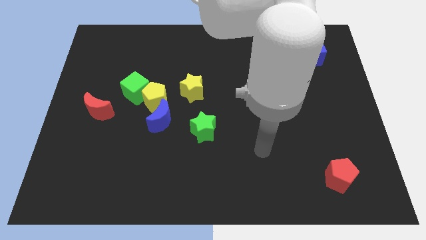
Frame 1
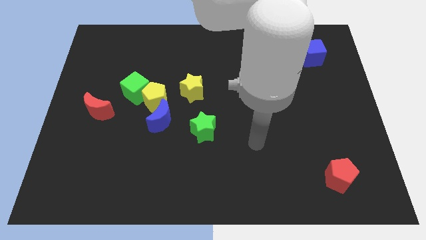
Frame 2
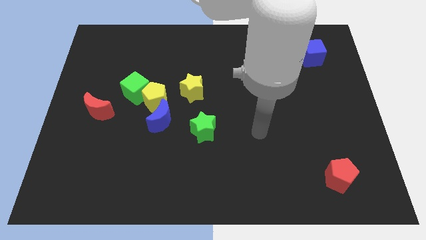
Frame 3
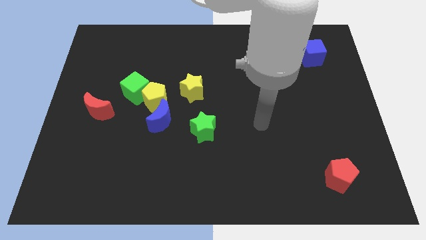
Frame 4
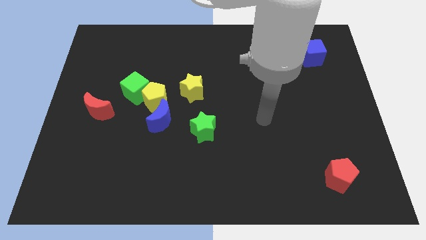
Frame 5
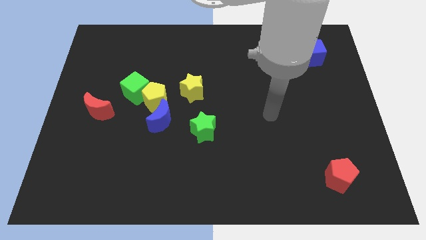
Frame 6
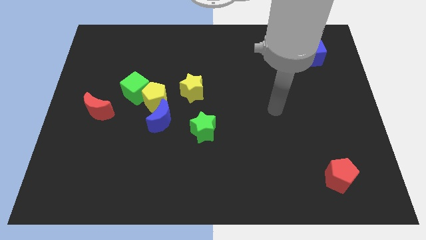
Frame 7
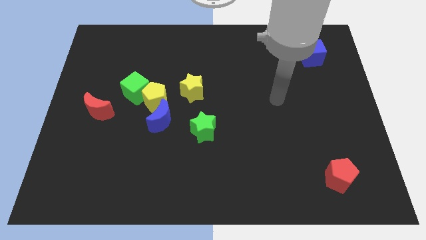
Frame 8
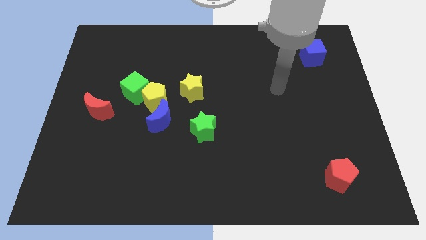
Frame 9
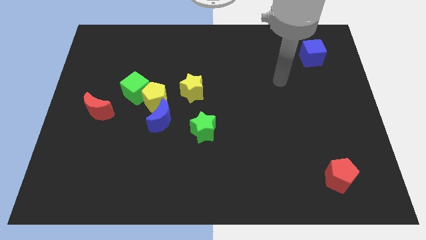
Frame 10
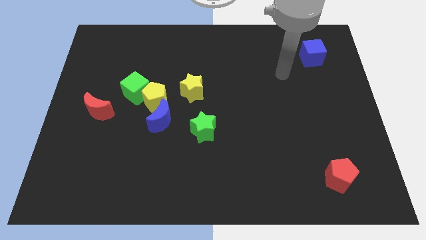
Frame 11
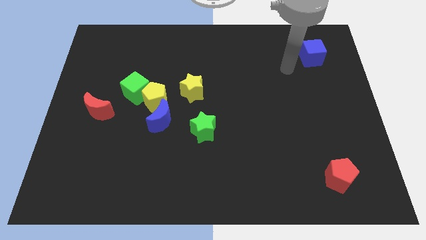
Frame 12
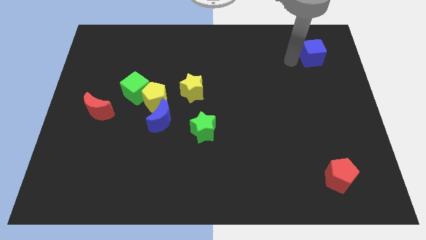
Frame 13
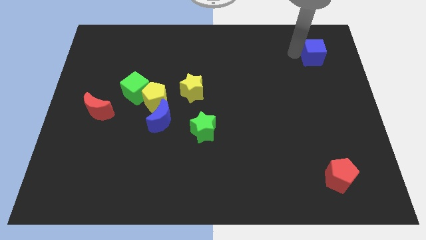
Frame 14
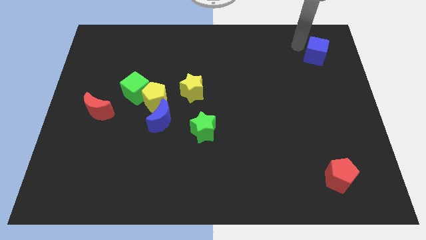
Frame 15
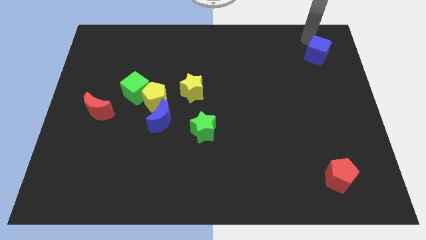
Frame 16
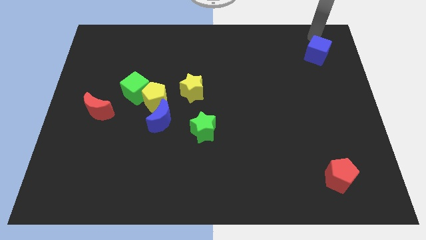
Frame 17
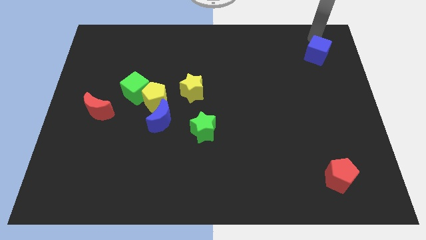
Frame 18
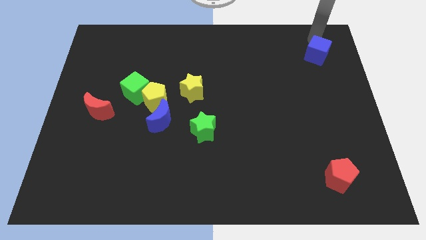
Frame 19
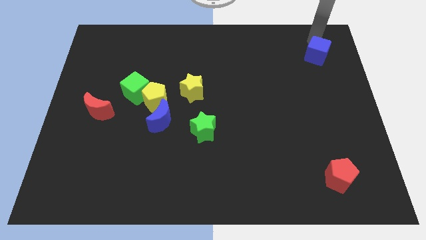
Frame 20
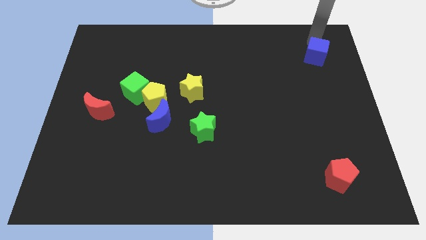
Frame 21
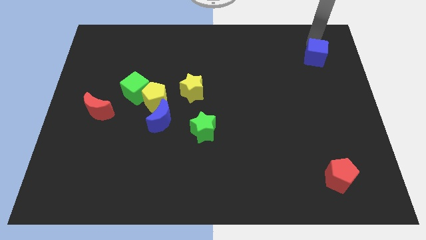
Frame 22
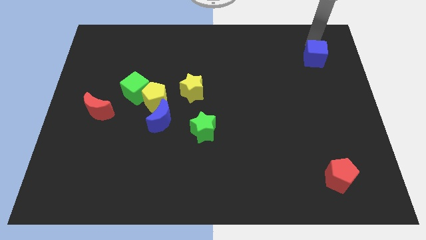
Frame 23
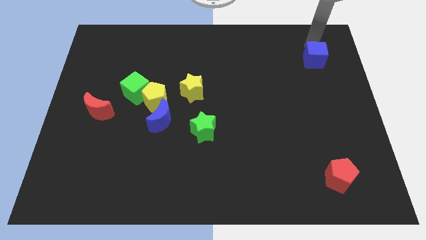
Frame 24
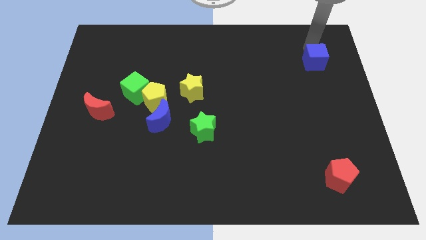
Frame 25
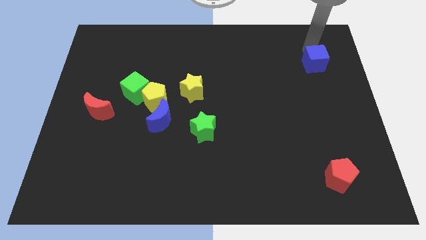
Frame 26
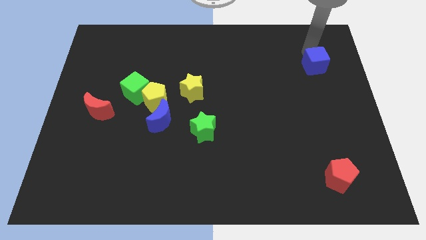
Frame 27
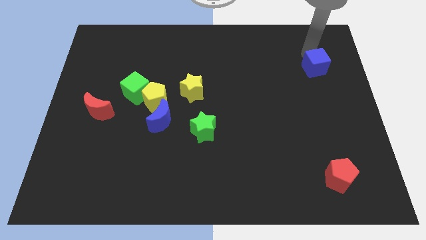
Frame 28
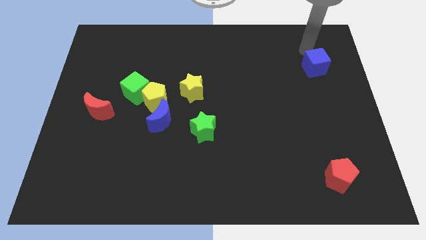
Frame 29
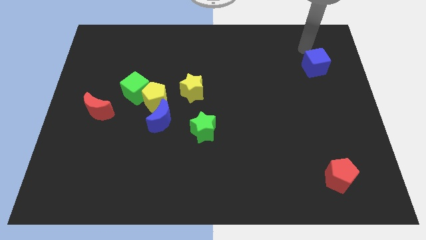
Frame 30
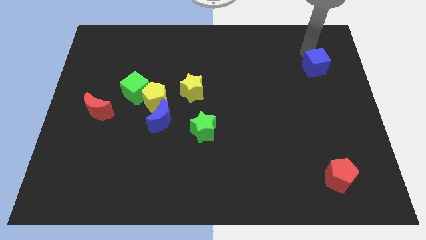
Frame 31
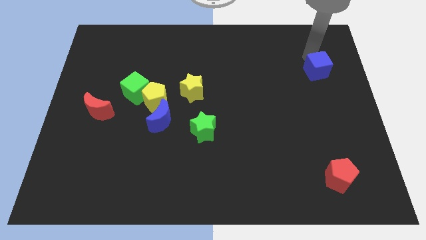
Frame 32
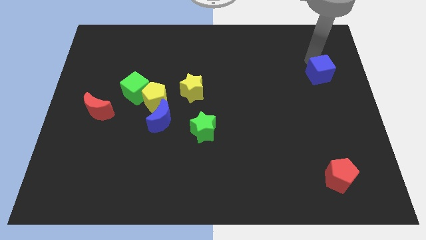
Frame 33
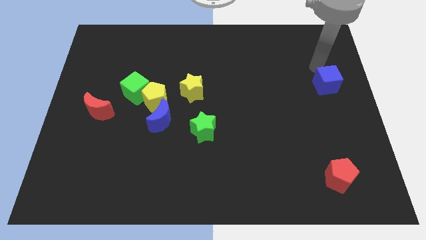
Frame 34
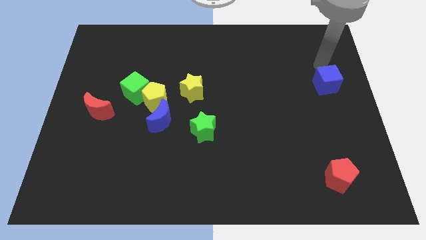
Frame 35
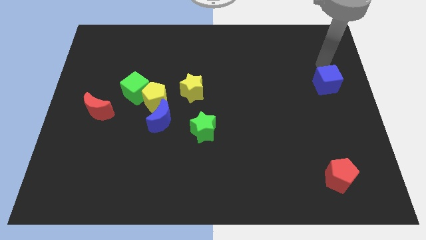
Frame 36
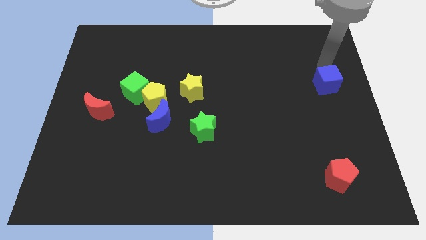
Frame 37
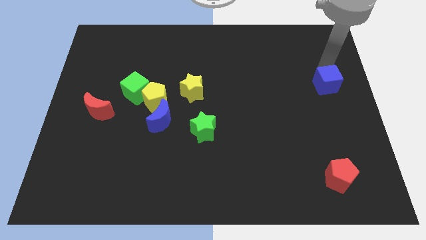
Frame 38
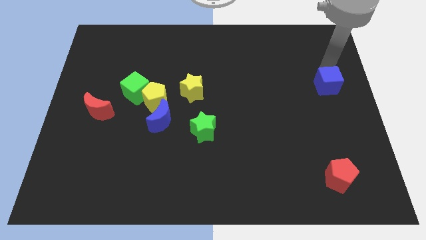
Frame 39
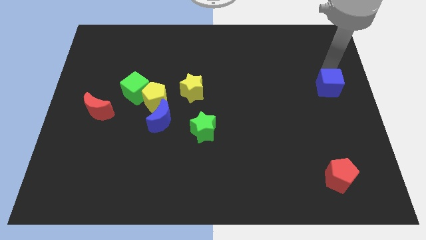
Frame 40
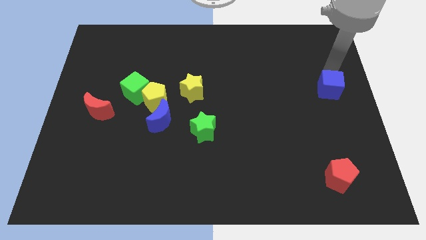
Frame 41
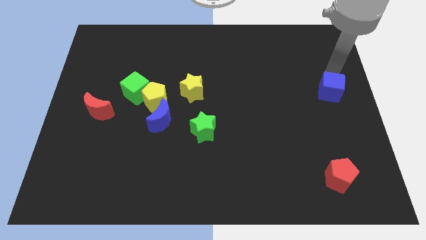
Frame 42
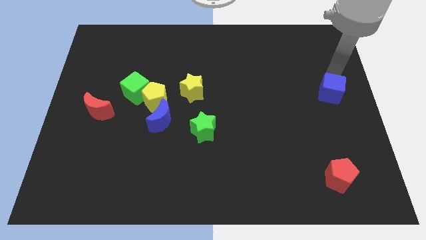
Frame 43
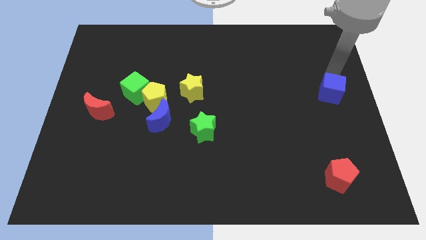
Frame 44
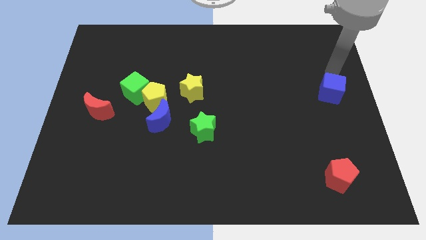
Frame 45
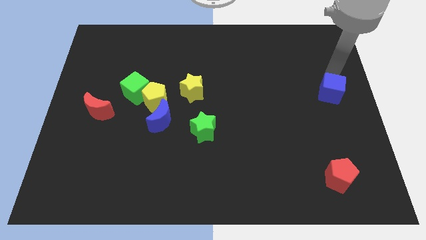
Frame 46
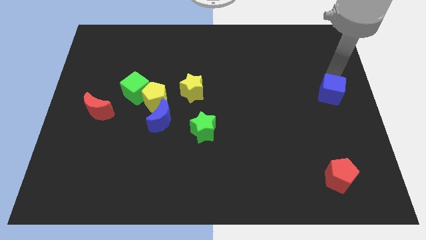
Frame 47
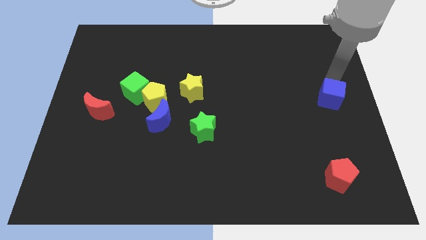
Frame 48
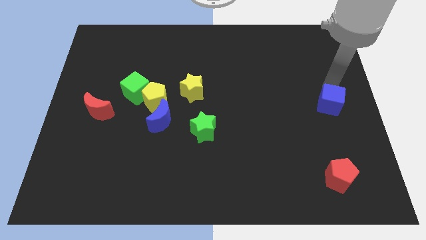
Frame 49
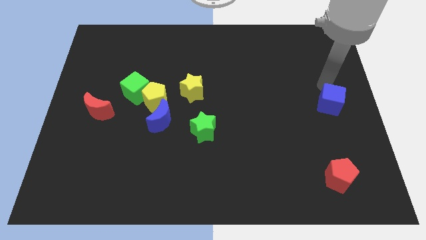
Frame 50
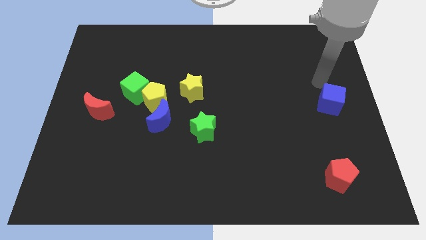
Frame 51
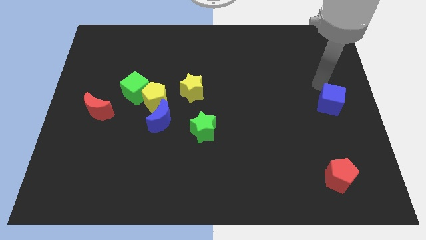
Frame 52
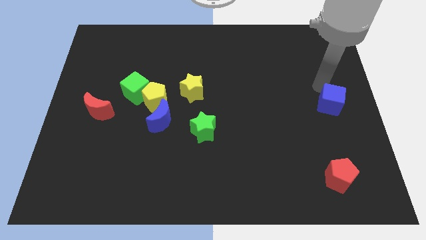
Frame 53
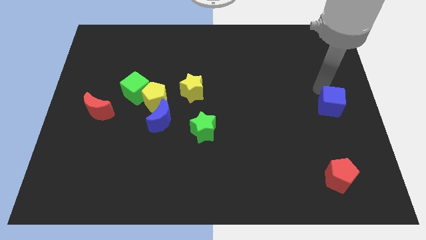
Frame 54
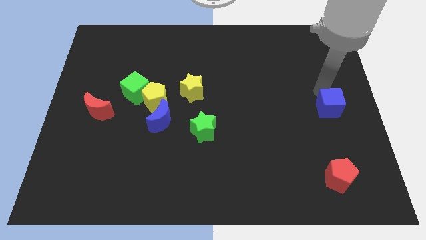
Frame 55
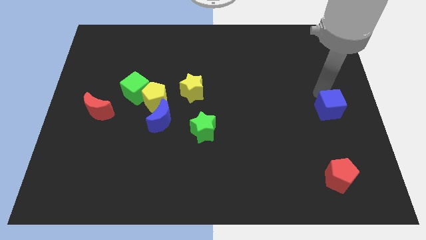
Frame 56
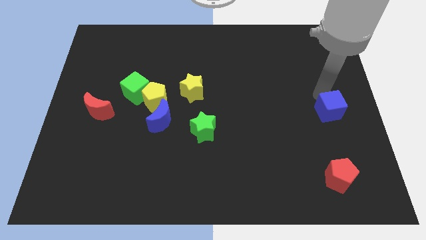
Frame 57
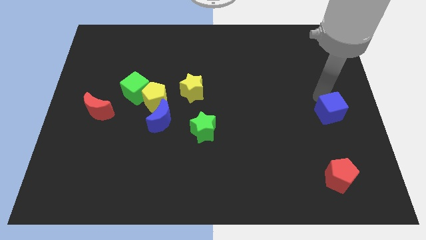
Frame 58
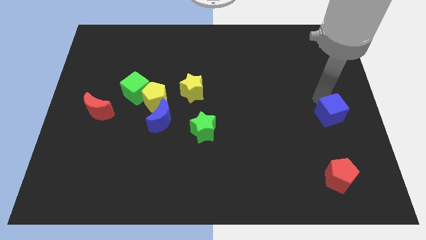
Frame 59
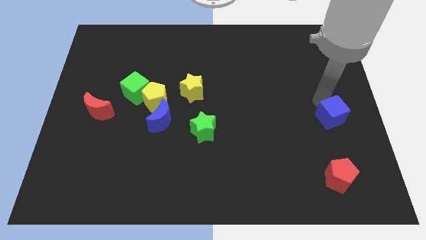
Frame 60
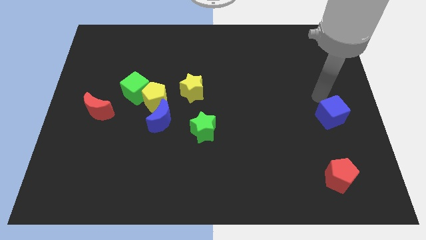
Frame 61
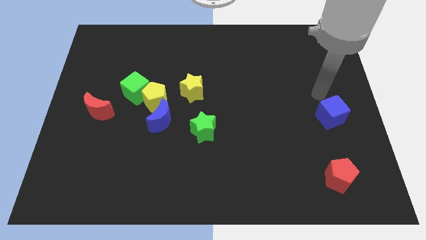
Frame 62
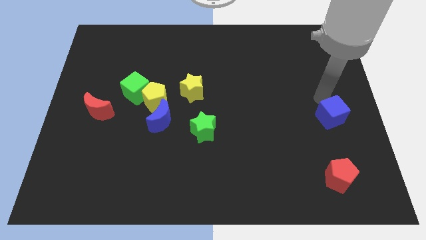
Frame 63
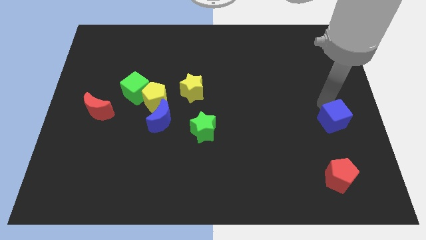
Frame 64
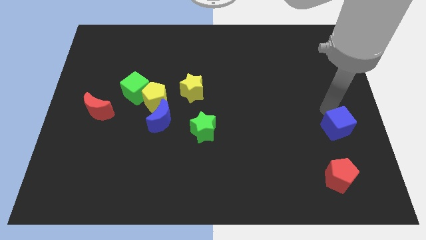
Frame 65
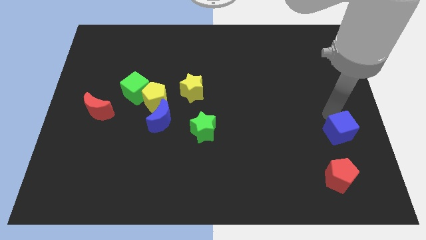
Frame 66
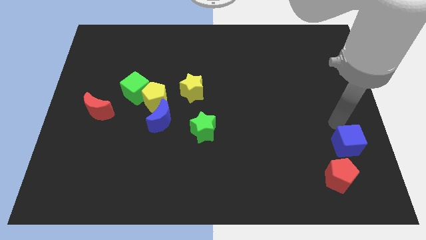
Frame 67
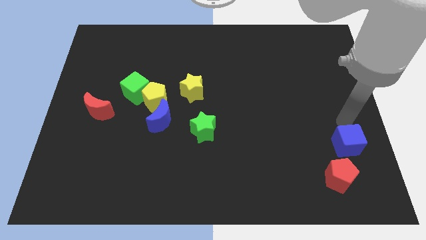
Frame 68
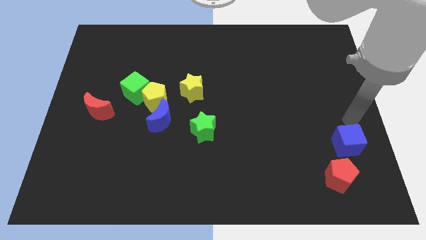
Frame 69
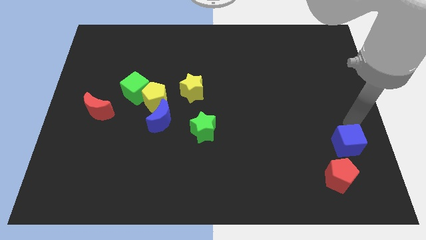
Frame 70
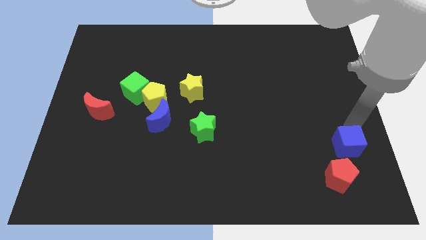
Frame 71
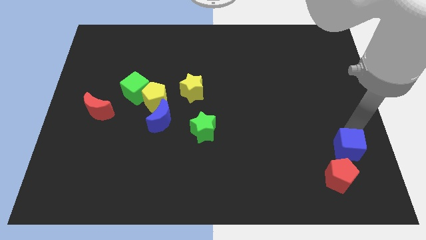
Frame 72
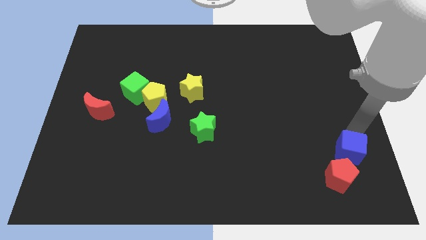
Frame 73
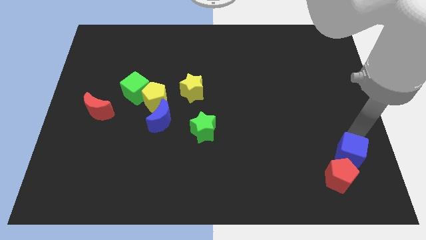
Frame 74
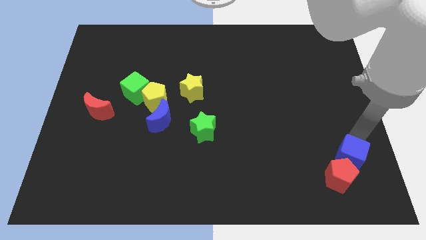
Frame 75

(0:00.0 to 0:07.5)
put the blue cube next to the red pentagon
